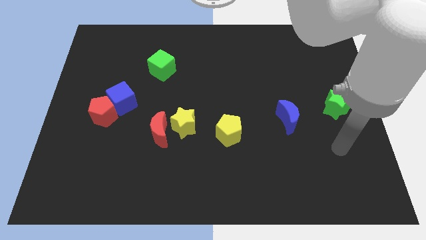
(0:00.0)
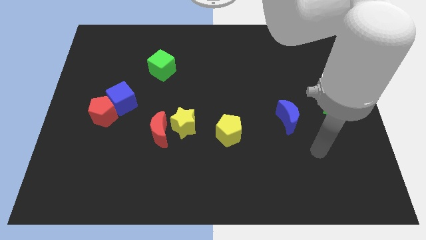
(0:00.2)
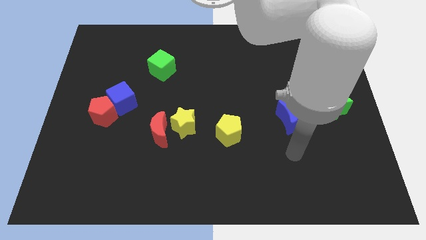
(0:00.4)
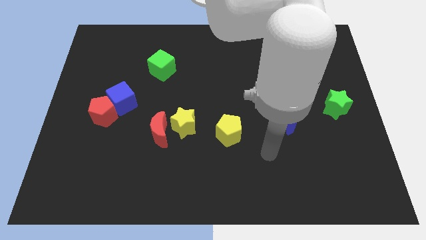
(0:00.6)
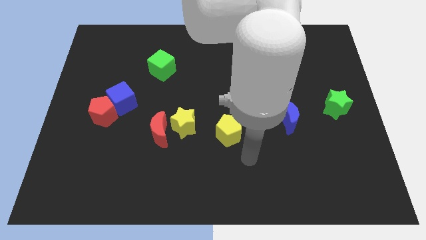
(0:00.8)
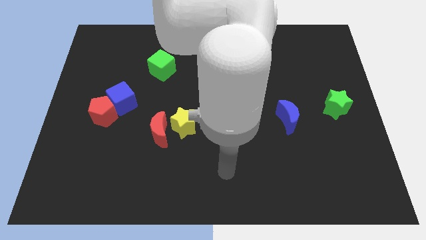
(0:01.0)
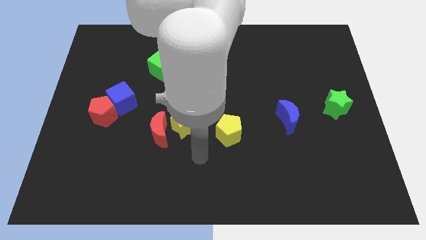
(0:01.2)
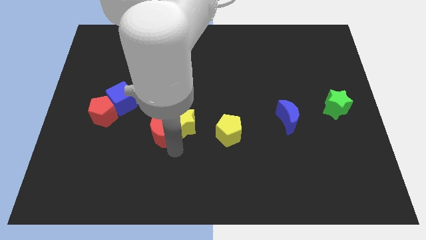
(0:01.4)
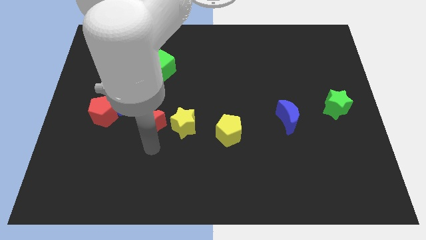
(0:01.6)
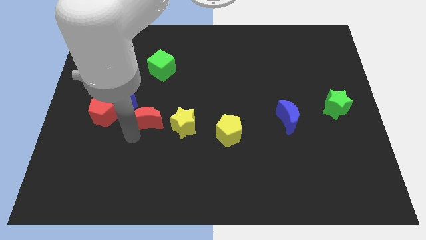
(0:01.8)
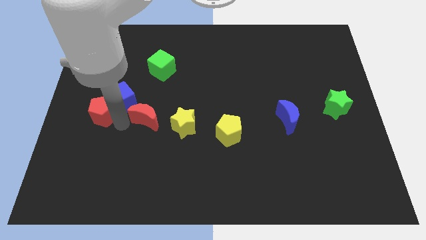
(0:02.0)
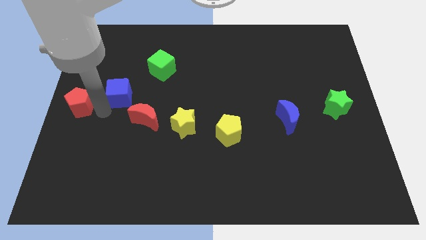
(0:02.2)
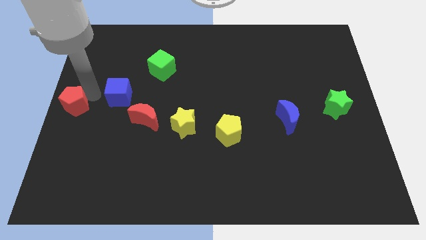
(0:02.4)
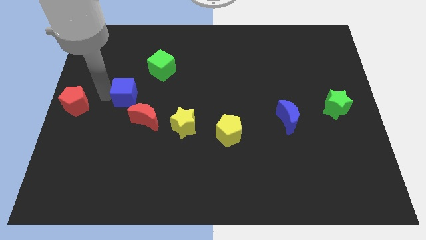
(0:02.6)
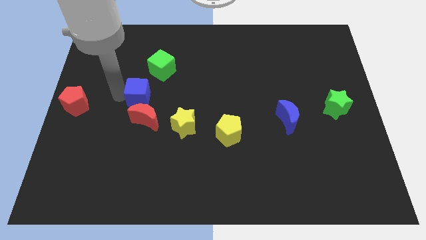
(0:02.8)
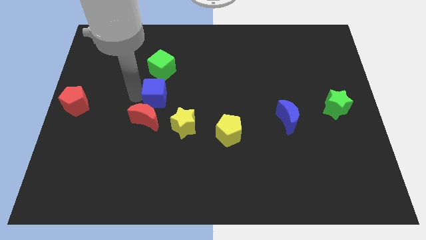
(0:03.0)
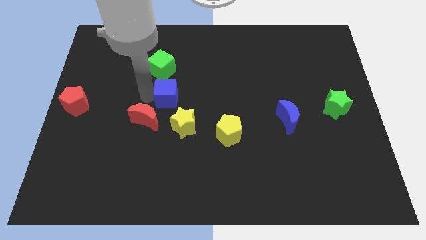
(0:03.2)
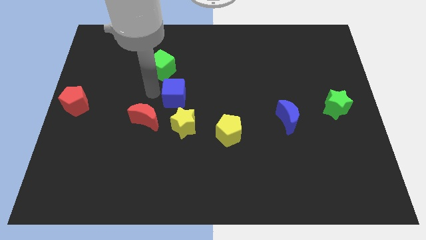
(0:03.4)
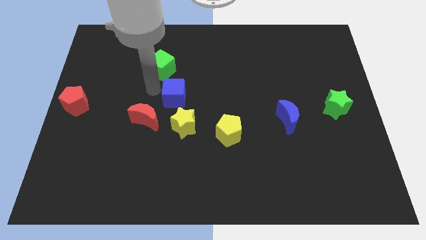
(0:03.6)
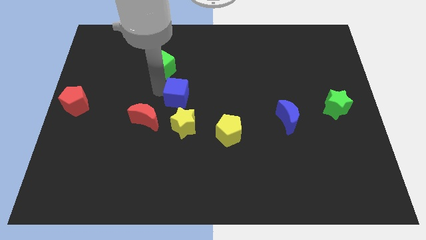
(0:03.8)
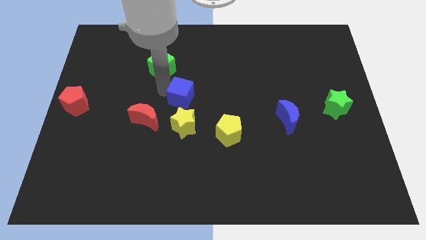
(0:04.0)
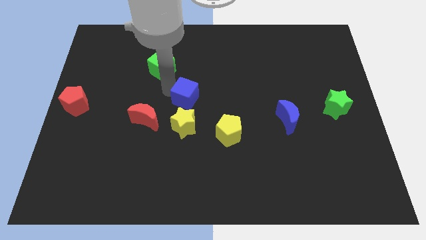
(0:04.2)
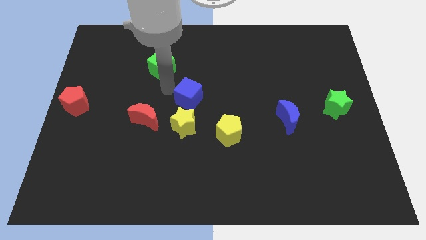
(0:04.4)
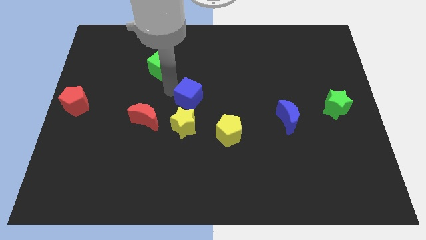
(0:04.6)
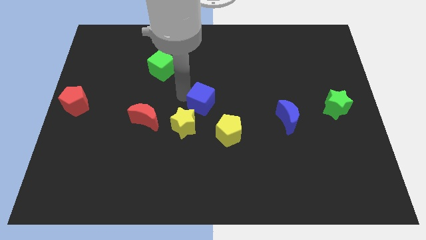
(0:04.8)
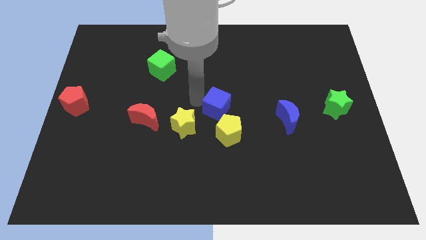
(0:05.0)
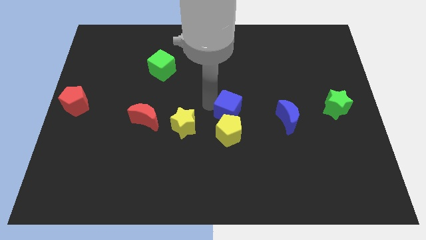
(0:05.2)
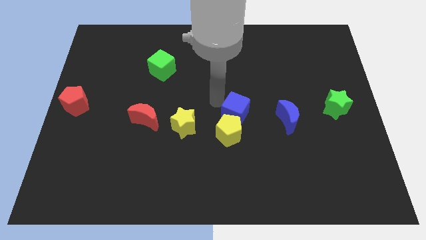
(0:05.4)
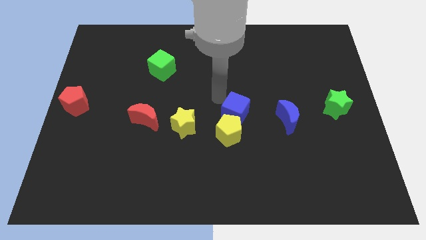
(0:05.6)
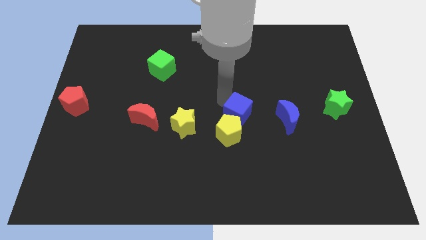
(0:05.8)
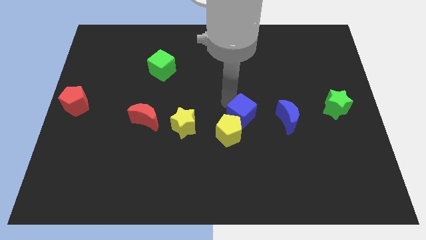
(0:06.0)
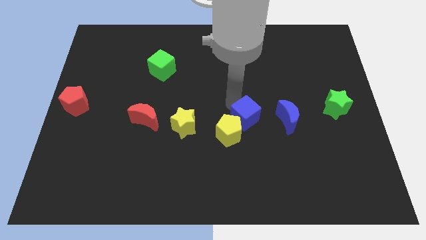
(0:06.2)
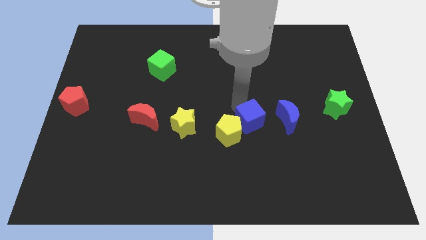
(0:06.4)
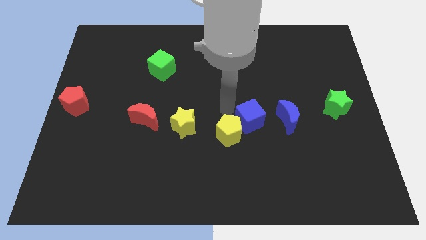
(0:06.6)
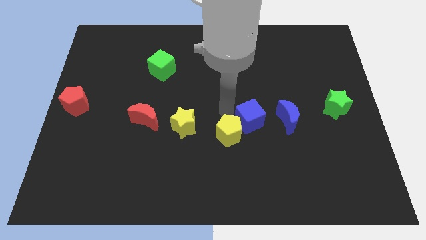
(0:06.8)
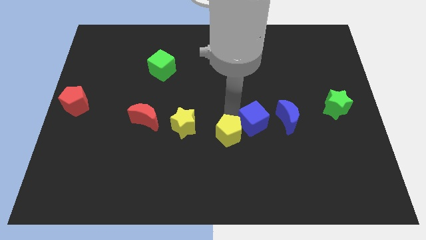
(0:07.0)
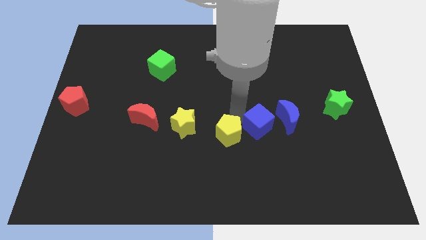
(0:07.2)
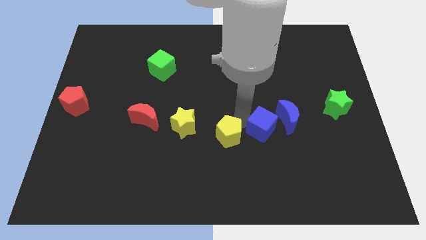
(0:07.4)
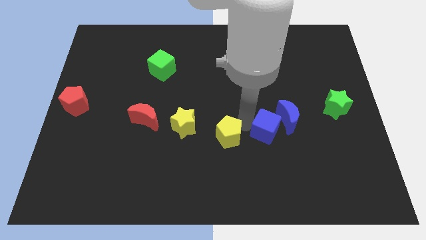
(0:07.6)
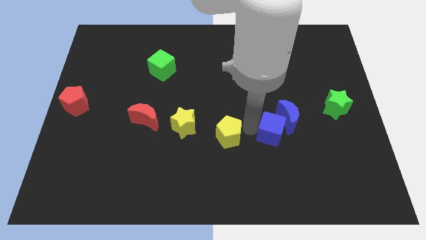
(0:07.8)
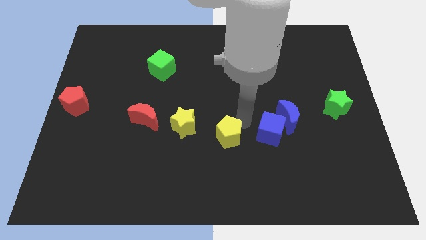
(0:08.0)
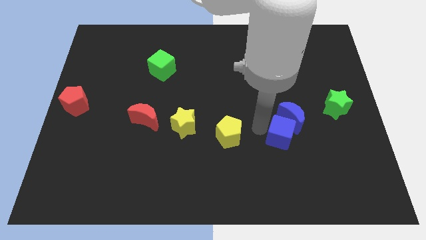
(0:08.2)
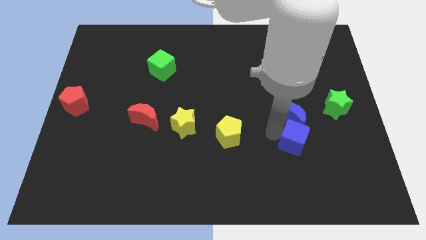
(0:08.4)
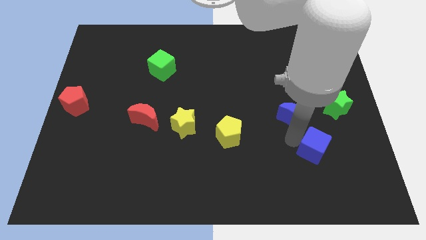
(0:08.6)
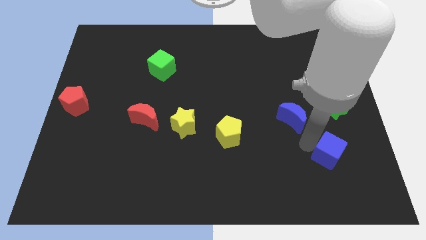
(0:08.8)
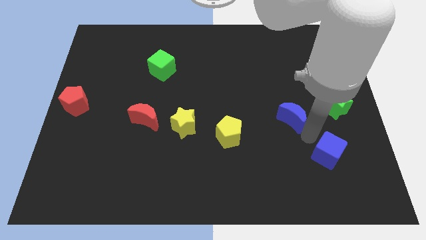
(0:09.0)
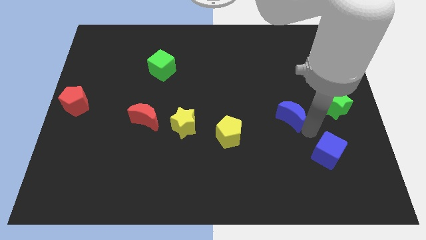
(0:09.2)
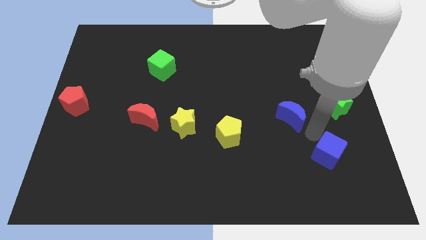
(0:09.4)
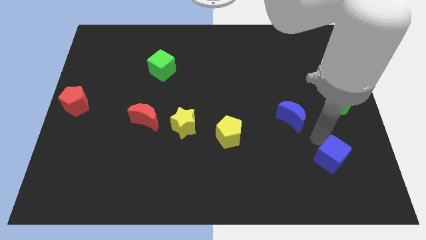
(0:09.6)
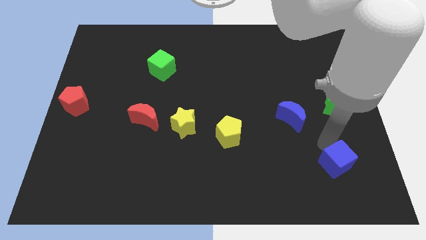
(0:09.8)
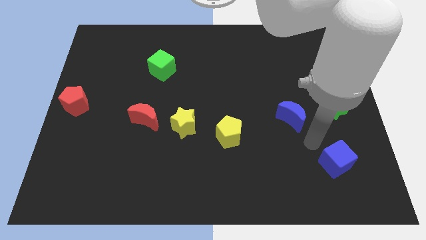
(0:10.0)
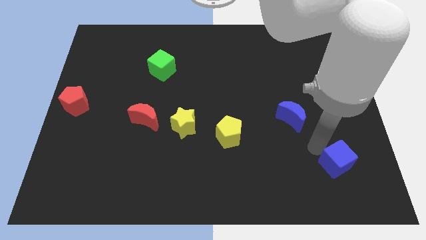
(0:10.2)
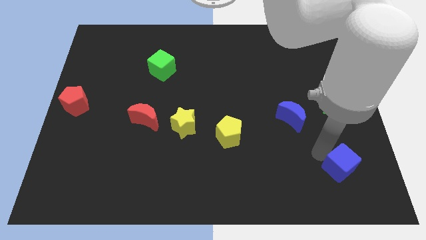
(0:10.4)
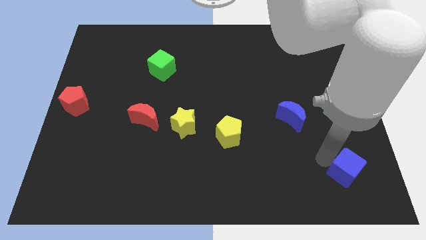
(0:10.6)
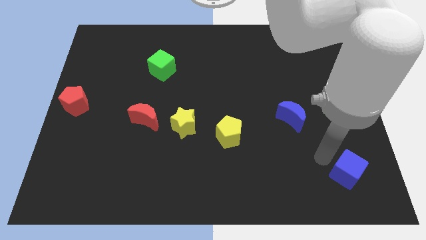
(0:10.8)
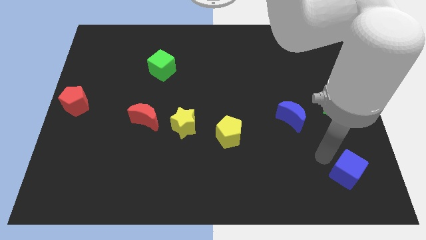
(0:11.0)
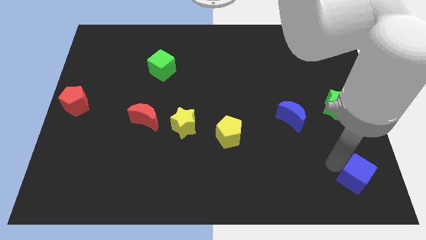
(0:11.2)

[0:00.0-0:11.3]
put the blue cube to the lower right corner

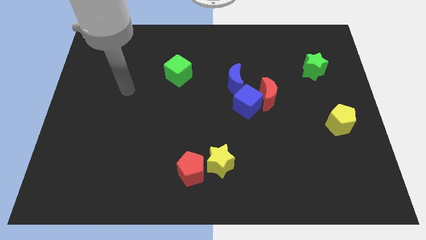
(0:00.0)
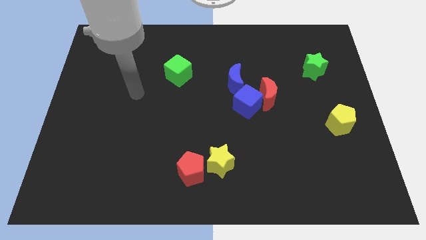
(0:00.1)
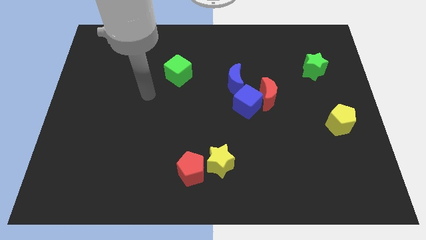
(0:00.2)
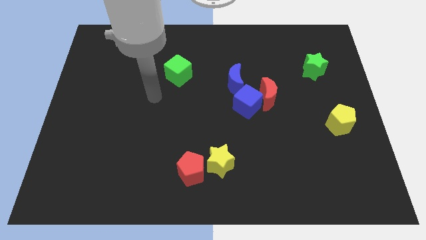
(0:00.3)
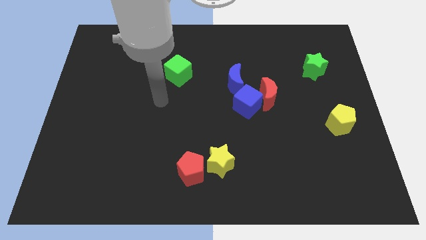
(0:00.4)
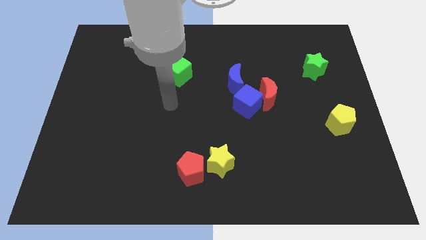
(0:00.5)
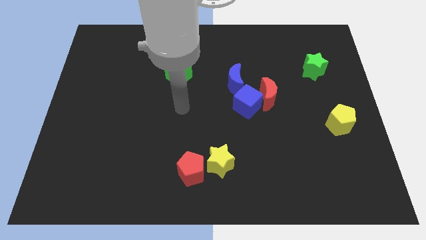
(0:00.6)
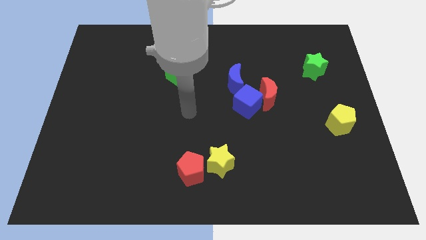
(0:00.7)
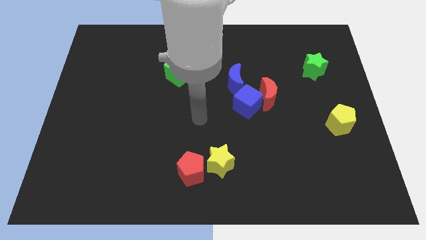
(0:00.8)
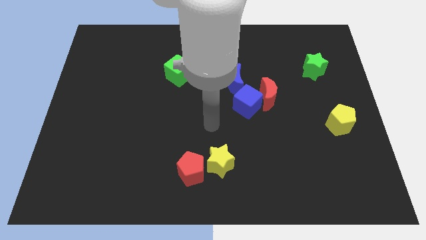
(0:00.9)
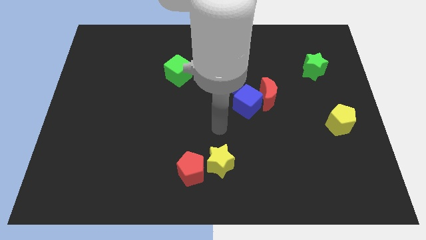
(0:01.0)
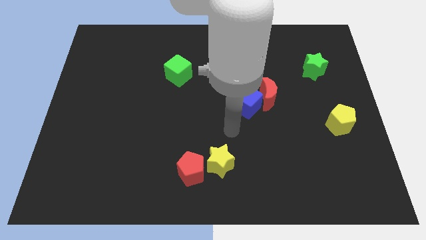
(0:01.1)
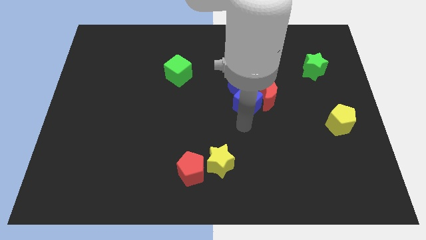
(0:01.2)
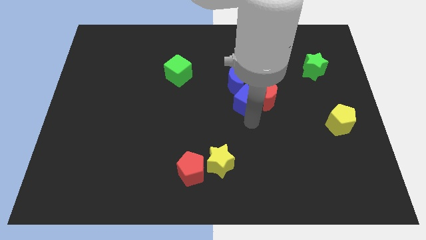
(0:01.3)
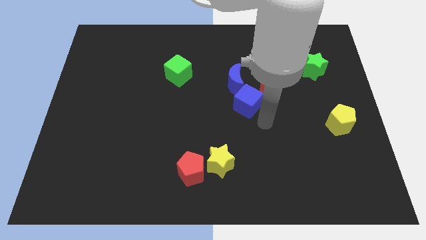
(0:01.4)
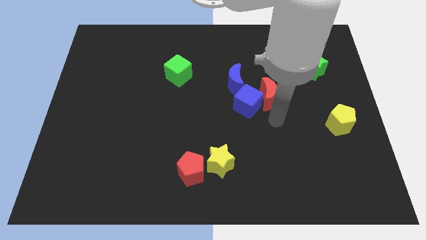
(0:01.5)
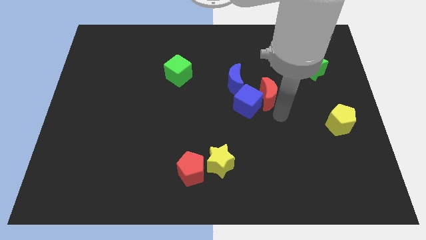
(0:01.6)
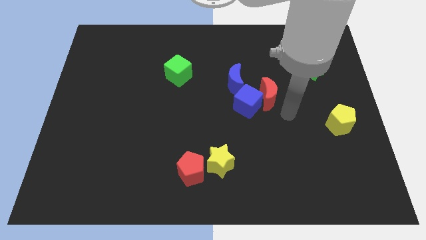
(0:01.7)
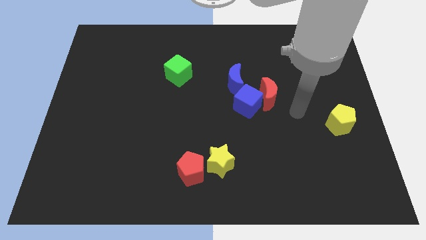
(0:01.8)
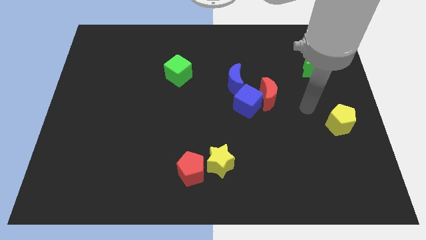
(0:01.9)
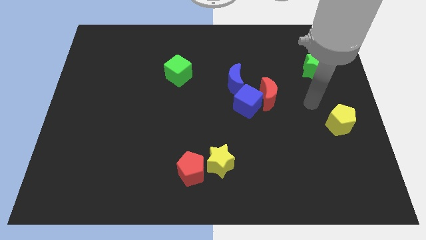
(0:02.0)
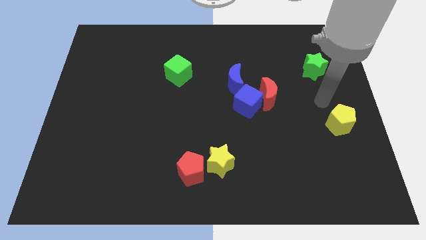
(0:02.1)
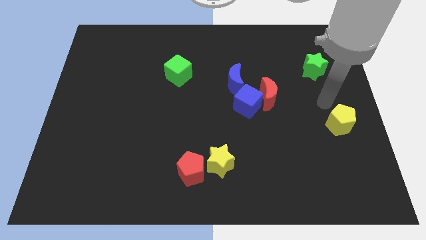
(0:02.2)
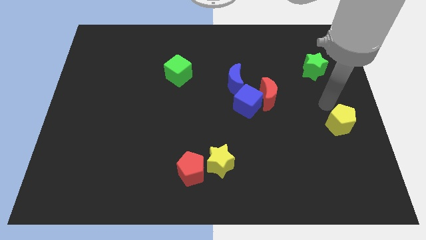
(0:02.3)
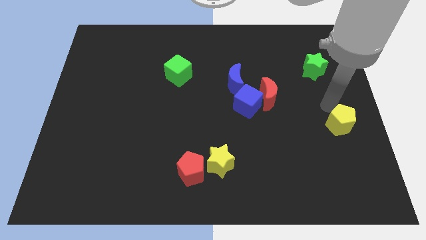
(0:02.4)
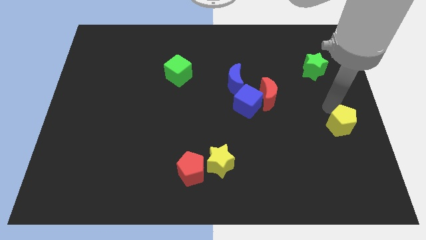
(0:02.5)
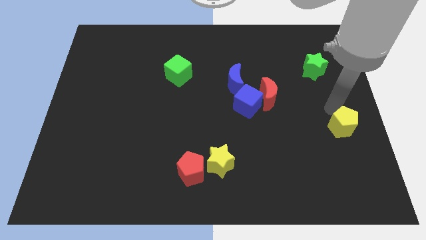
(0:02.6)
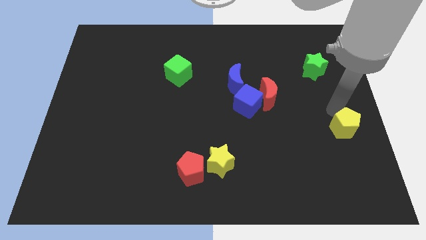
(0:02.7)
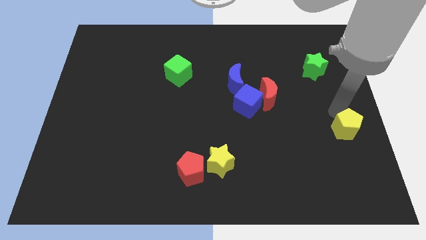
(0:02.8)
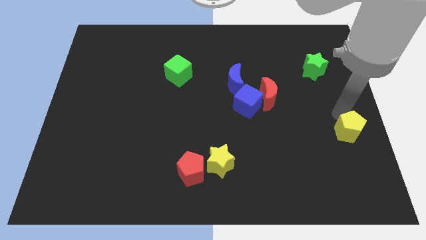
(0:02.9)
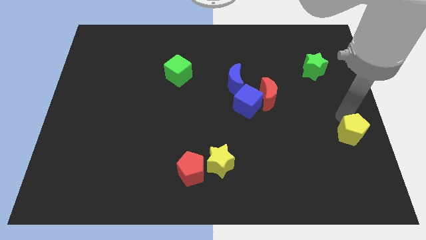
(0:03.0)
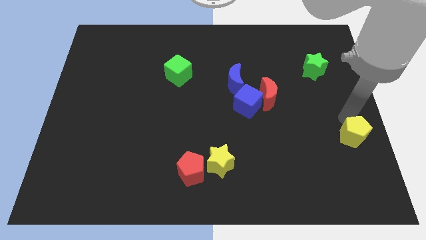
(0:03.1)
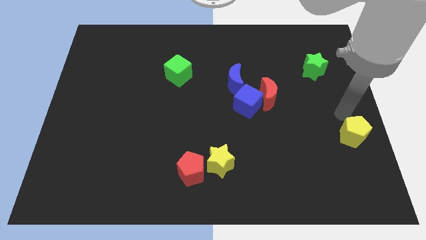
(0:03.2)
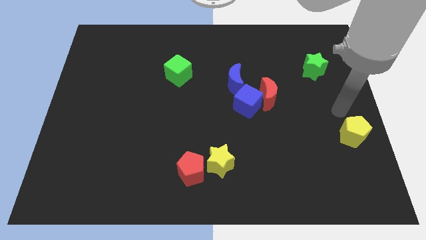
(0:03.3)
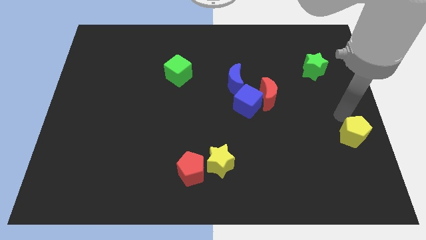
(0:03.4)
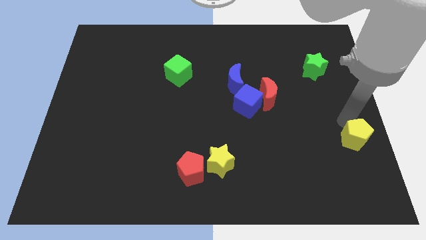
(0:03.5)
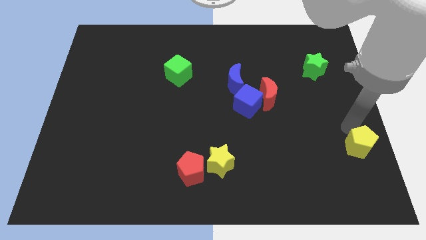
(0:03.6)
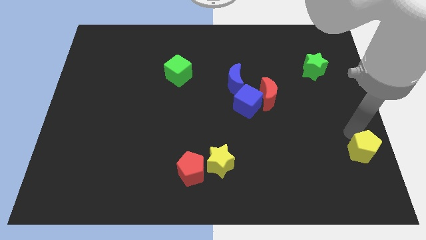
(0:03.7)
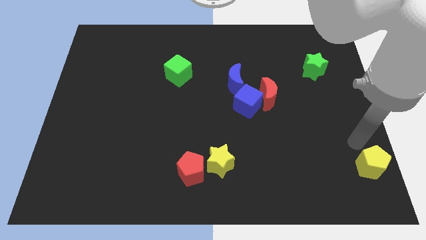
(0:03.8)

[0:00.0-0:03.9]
push the yellow pentagon to the bottom right
